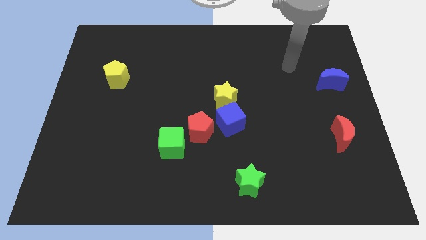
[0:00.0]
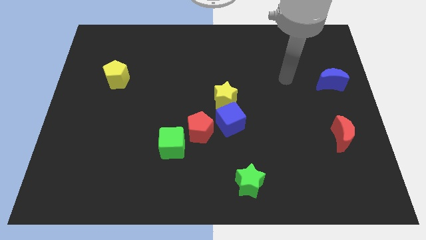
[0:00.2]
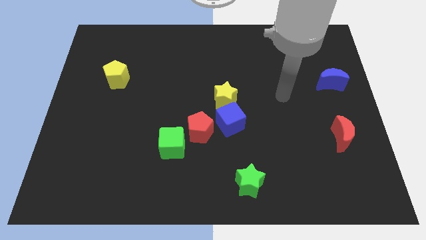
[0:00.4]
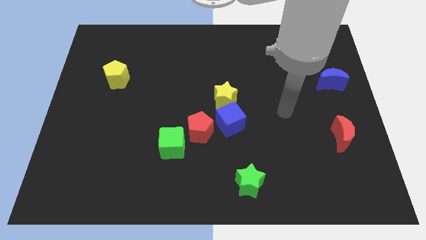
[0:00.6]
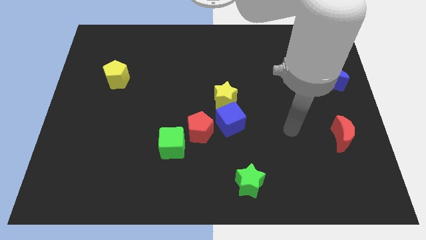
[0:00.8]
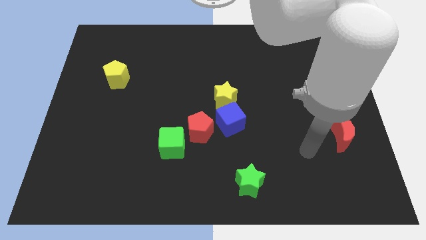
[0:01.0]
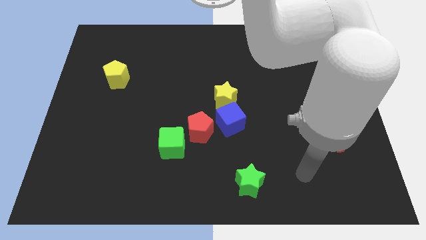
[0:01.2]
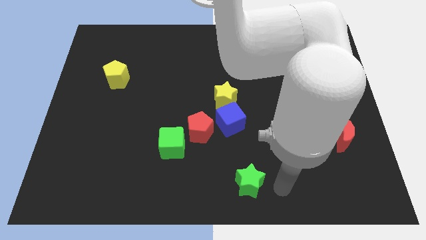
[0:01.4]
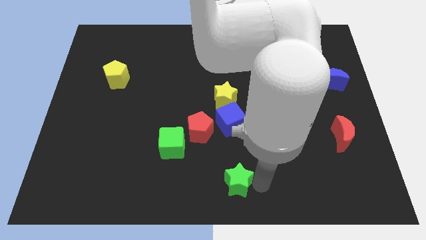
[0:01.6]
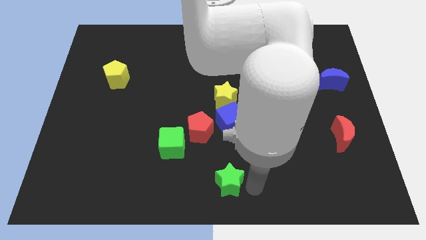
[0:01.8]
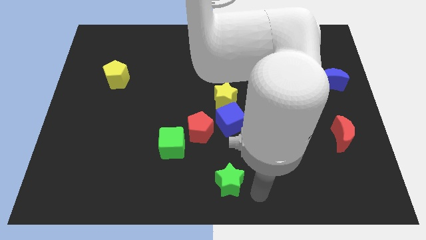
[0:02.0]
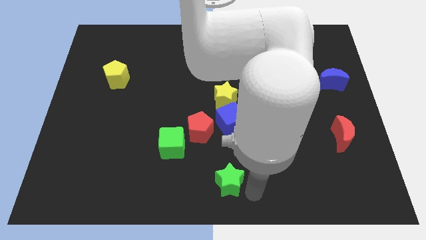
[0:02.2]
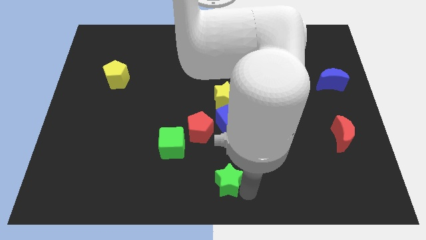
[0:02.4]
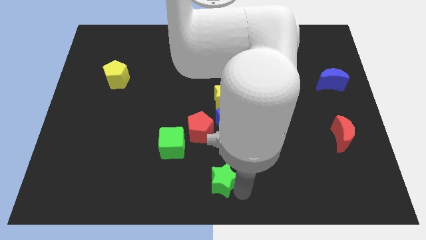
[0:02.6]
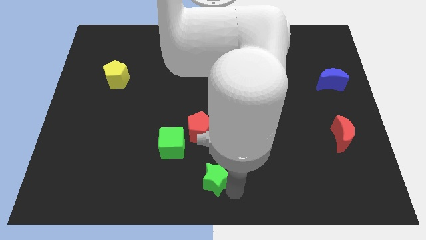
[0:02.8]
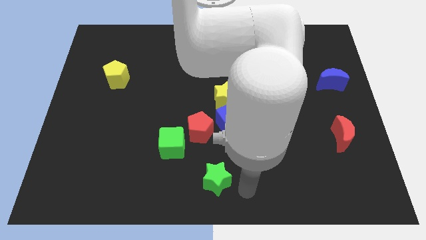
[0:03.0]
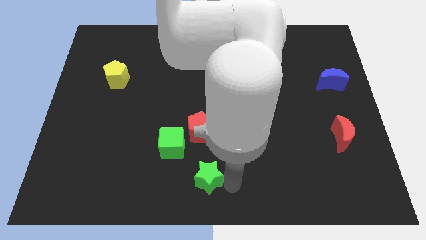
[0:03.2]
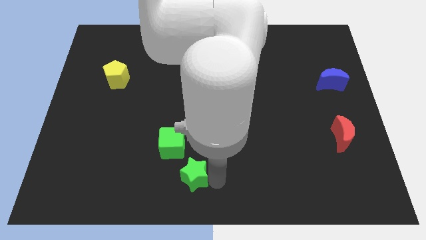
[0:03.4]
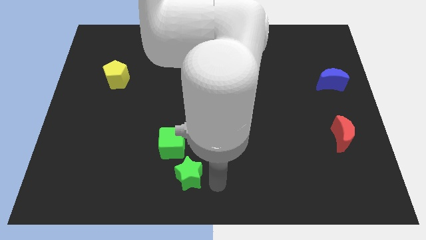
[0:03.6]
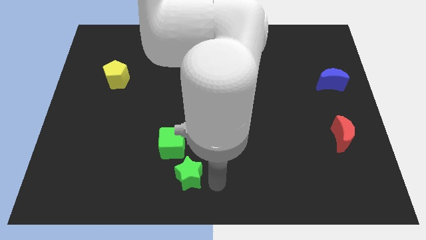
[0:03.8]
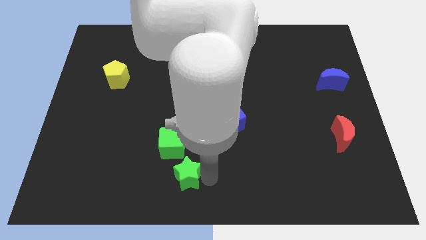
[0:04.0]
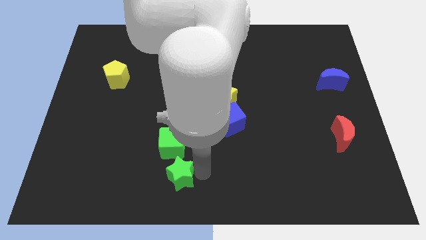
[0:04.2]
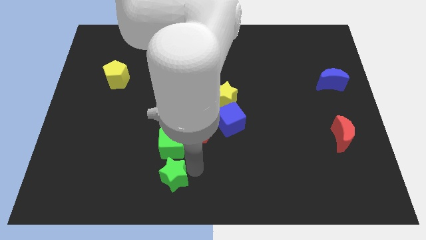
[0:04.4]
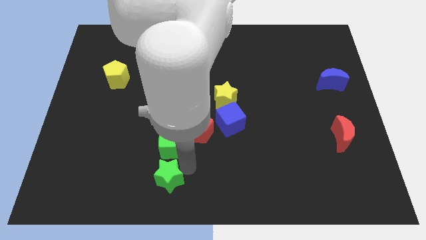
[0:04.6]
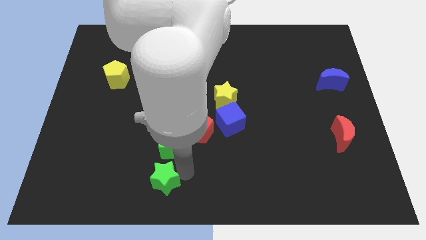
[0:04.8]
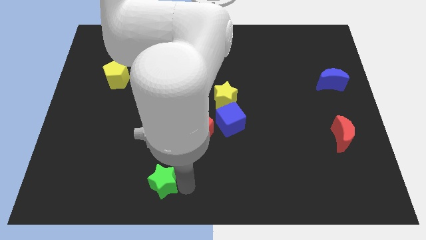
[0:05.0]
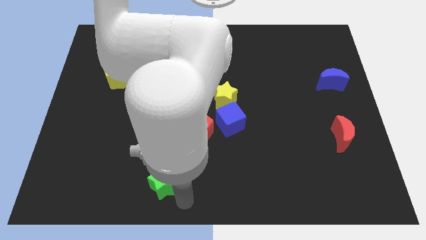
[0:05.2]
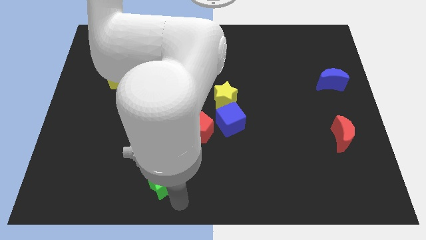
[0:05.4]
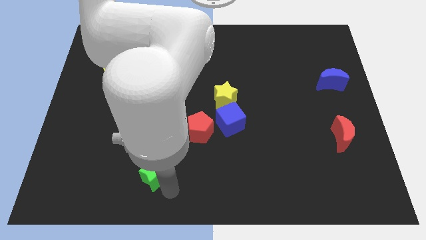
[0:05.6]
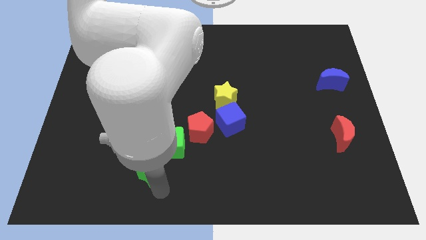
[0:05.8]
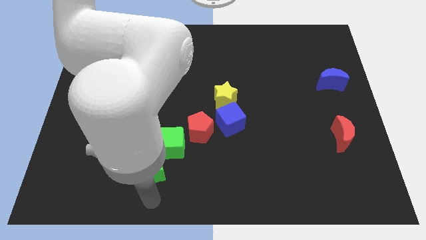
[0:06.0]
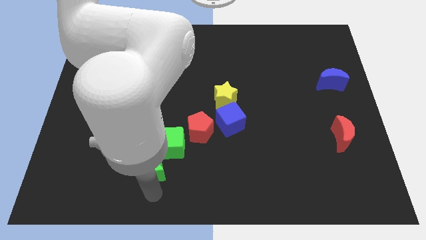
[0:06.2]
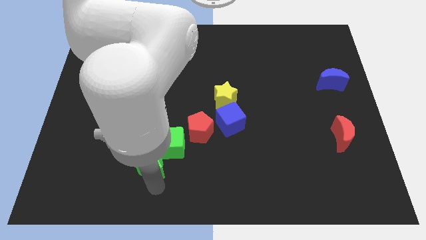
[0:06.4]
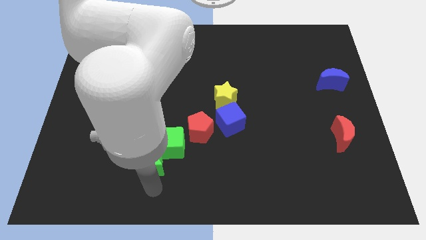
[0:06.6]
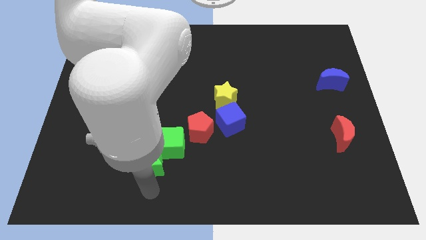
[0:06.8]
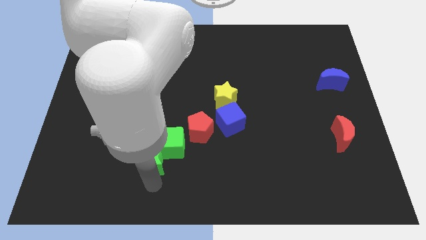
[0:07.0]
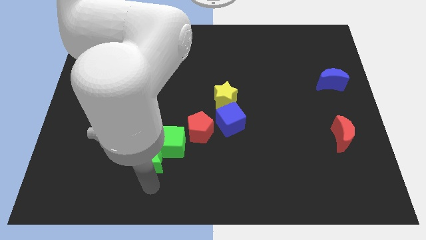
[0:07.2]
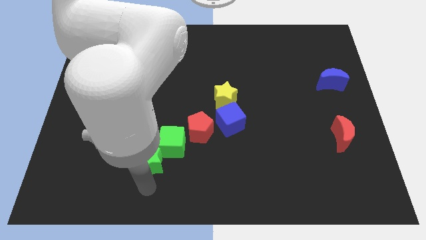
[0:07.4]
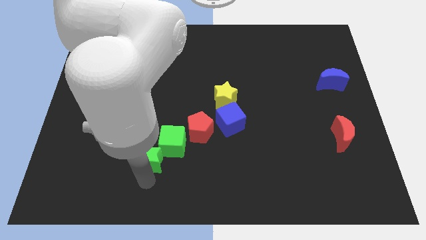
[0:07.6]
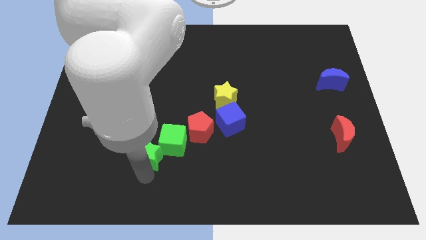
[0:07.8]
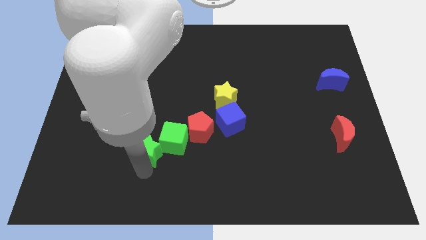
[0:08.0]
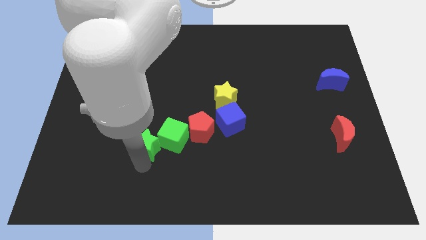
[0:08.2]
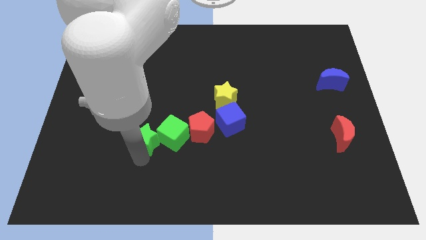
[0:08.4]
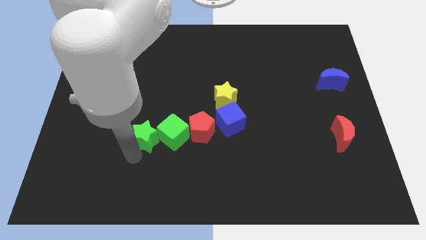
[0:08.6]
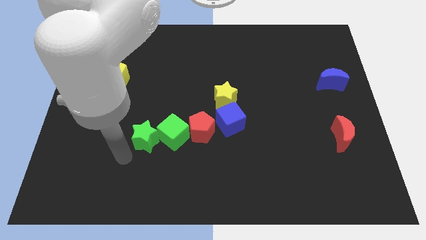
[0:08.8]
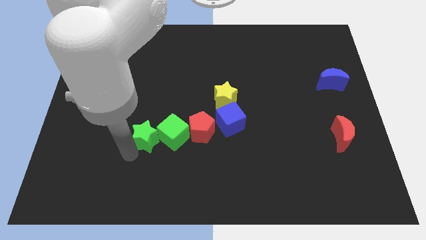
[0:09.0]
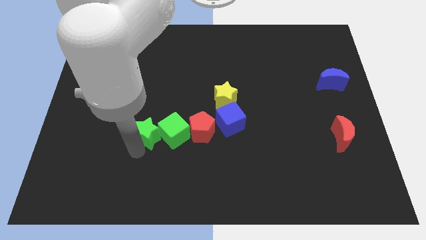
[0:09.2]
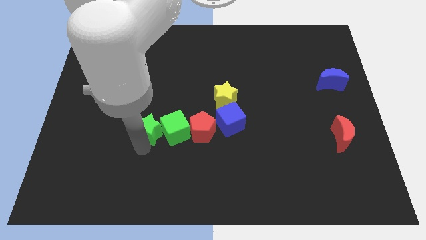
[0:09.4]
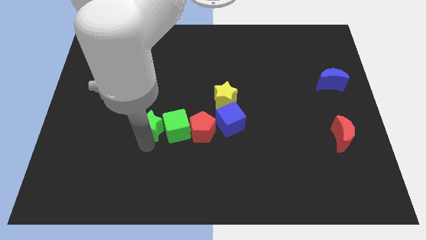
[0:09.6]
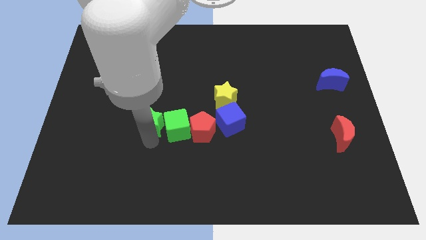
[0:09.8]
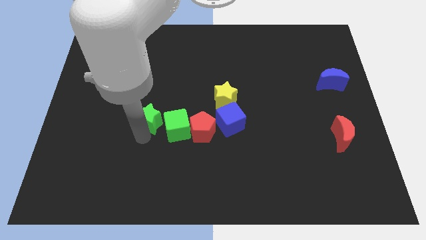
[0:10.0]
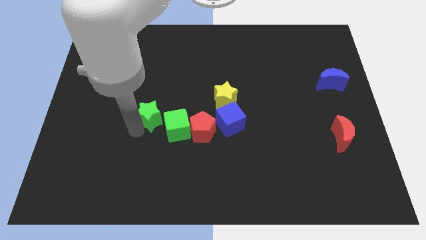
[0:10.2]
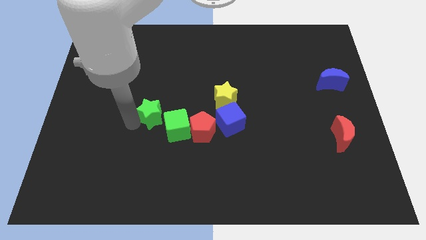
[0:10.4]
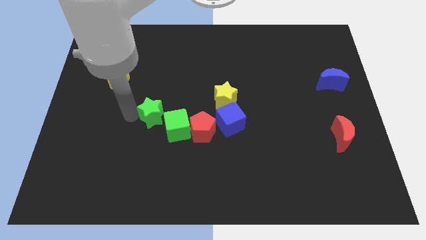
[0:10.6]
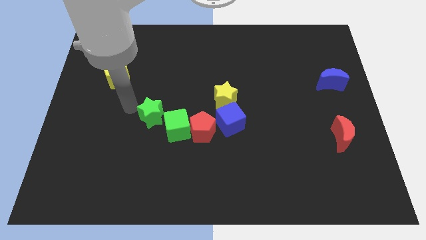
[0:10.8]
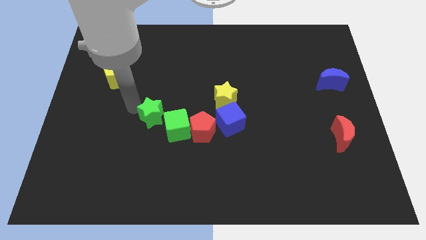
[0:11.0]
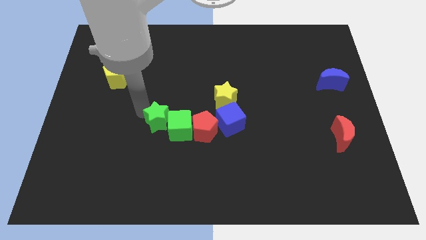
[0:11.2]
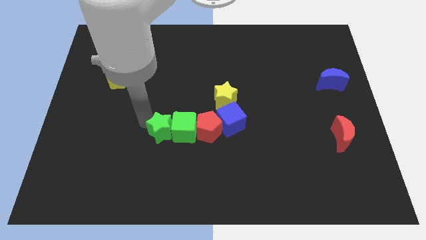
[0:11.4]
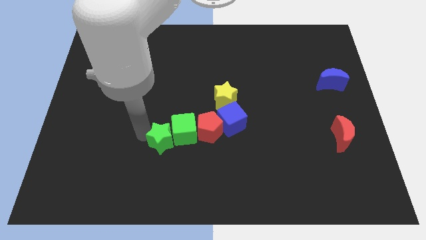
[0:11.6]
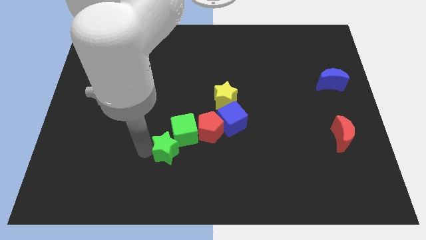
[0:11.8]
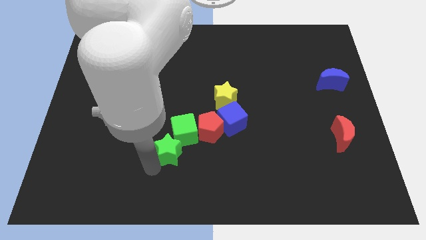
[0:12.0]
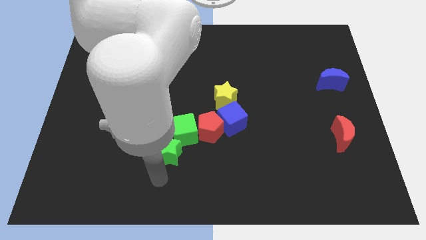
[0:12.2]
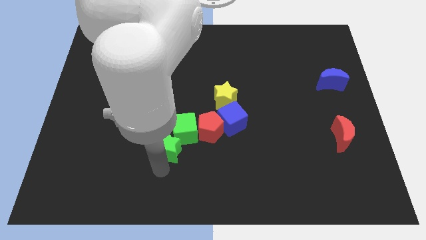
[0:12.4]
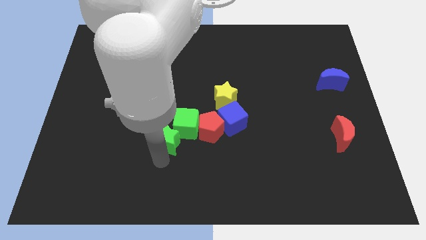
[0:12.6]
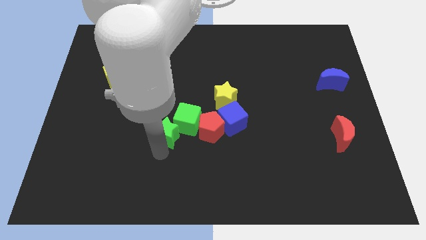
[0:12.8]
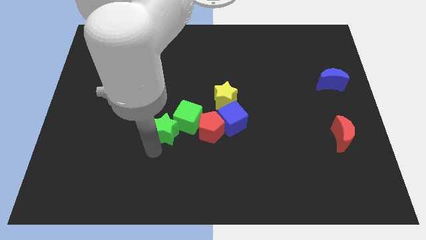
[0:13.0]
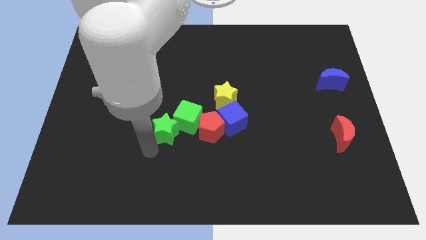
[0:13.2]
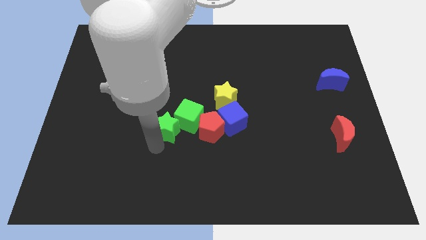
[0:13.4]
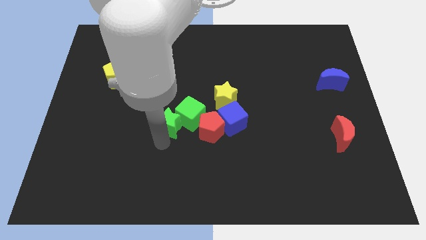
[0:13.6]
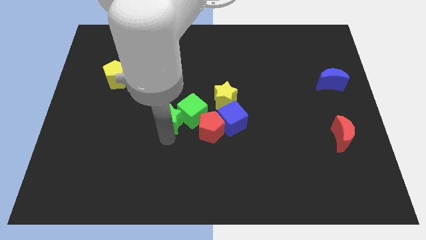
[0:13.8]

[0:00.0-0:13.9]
slide the green star to the top left side of the red pentagon
